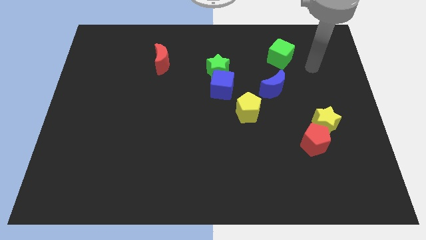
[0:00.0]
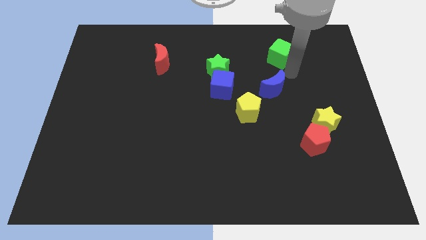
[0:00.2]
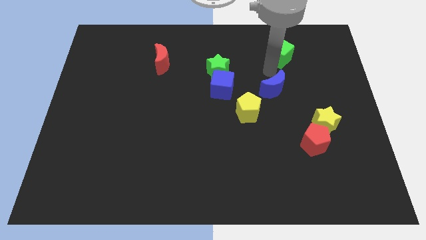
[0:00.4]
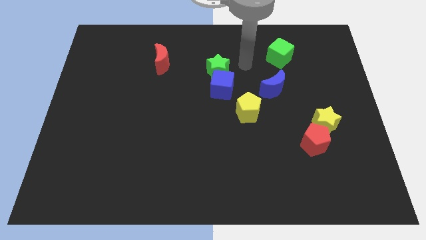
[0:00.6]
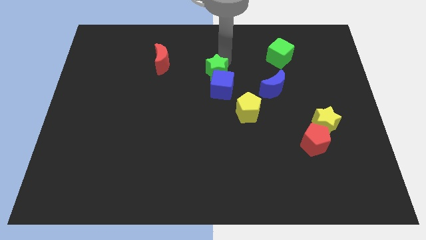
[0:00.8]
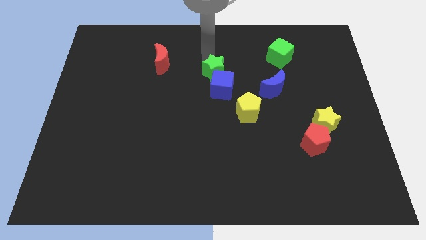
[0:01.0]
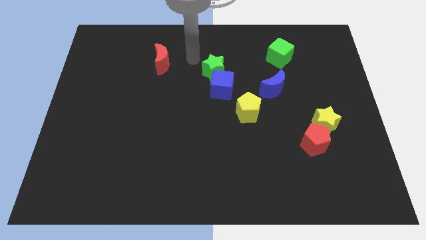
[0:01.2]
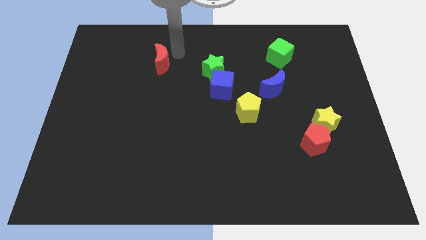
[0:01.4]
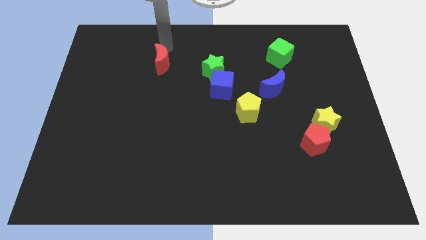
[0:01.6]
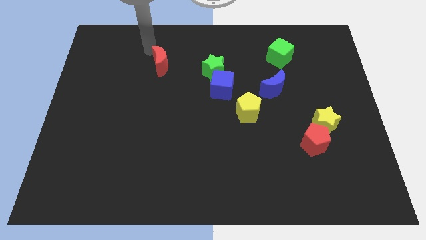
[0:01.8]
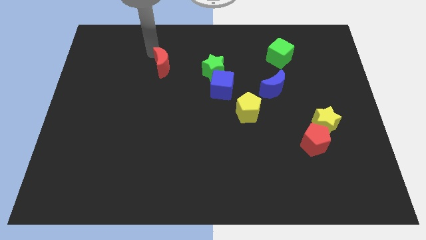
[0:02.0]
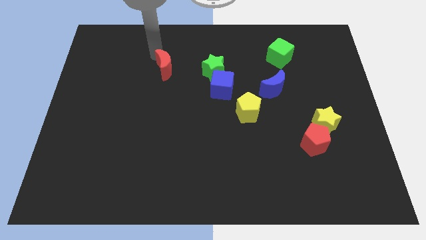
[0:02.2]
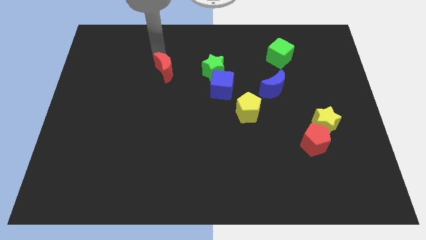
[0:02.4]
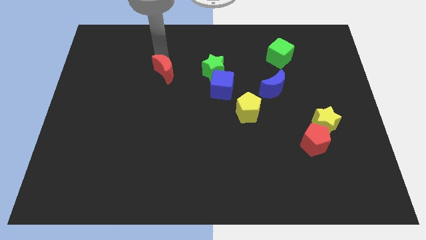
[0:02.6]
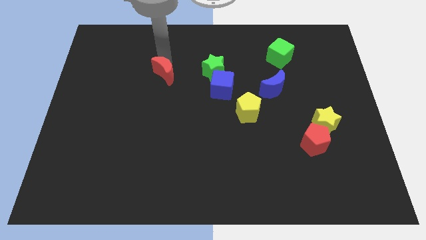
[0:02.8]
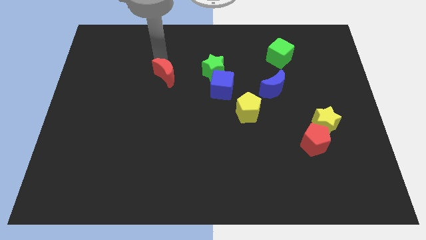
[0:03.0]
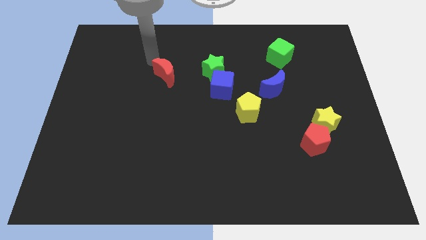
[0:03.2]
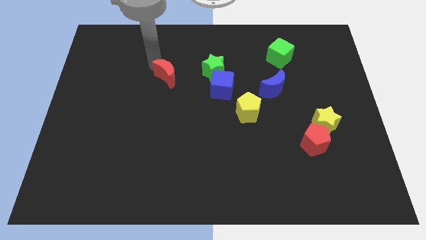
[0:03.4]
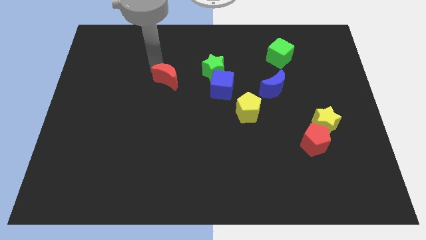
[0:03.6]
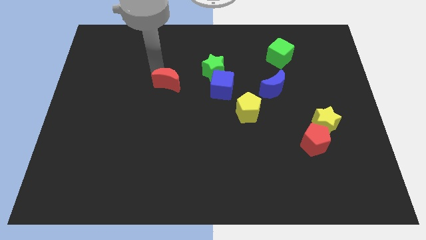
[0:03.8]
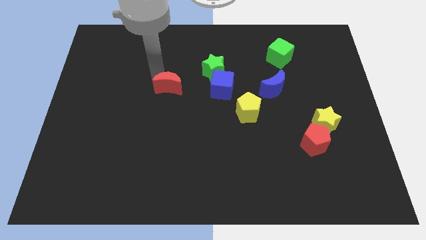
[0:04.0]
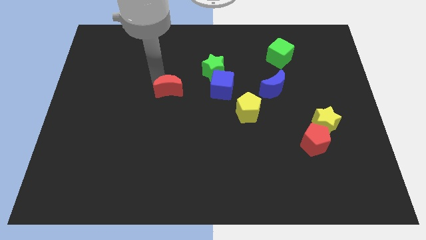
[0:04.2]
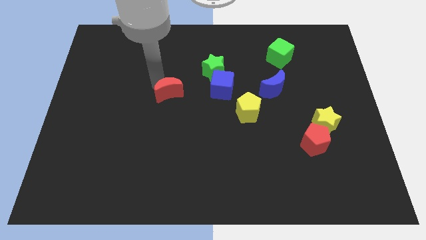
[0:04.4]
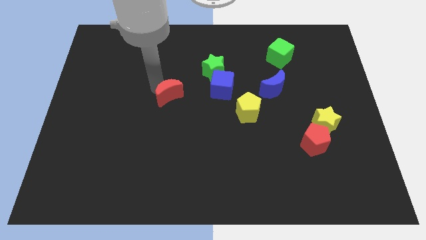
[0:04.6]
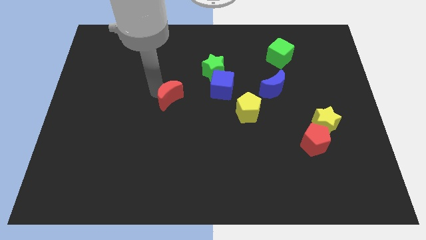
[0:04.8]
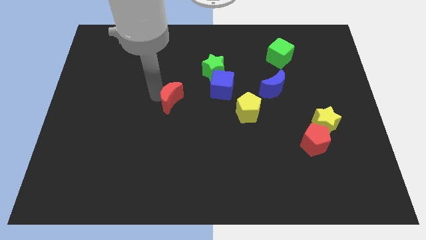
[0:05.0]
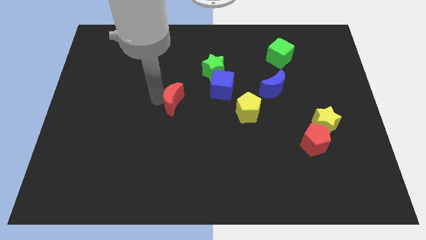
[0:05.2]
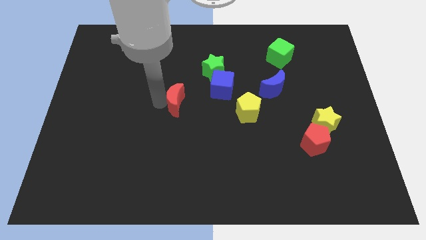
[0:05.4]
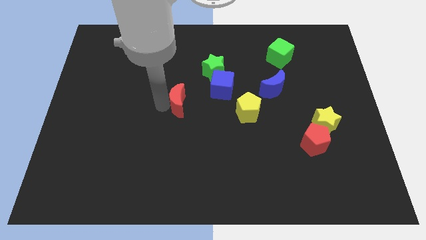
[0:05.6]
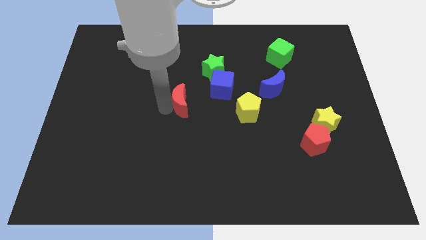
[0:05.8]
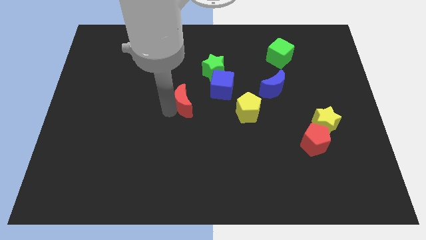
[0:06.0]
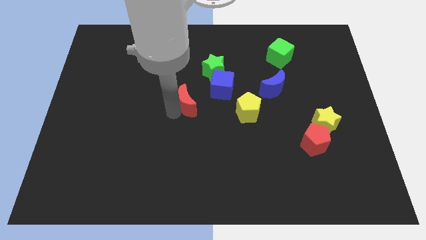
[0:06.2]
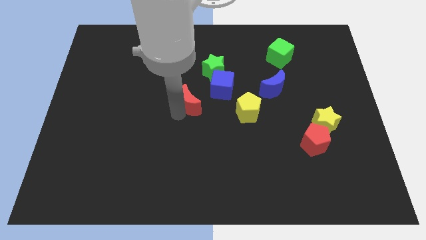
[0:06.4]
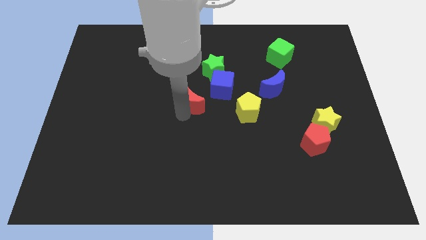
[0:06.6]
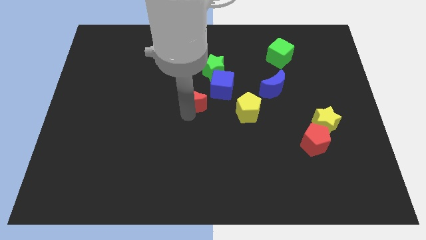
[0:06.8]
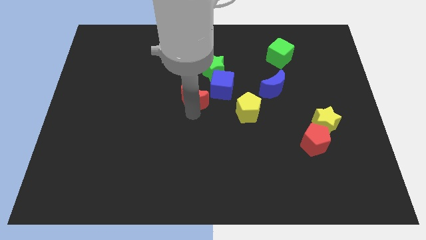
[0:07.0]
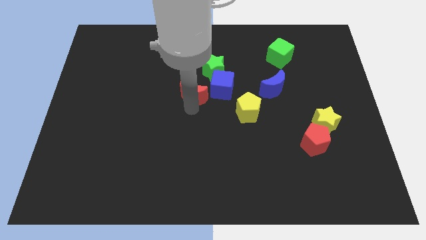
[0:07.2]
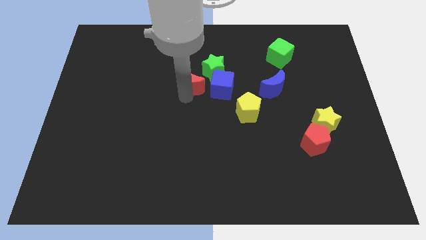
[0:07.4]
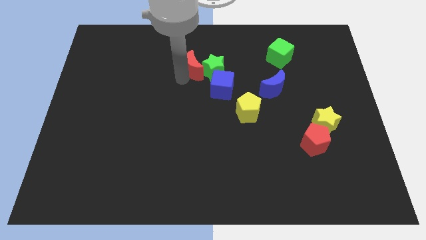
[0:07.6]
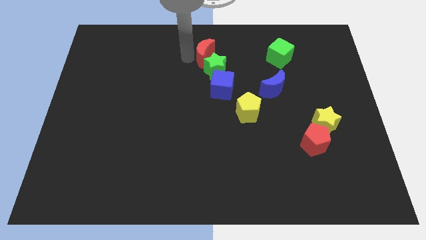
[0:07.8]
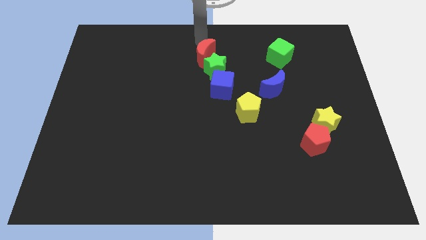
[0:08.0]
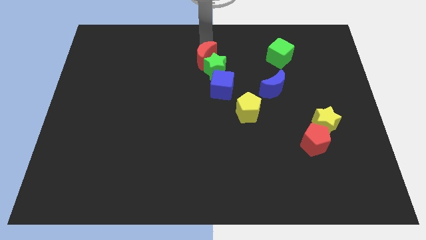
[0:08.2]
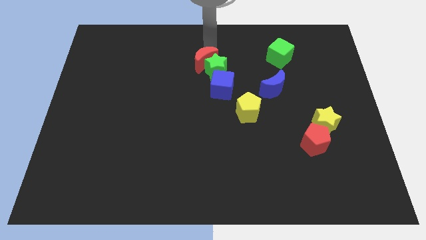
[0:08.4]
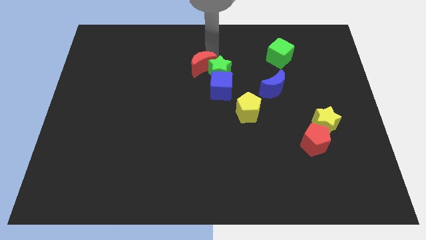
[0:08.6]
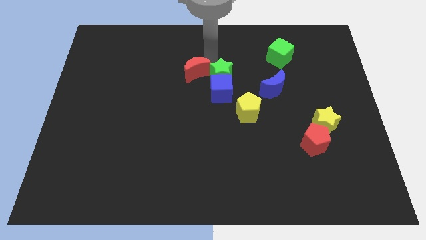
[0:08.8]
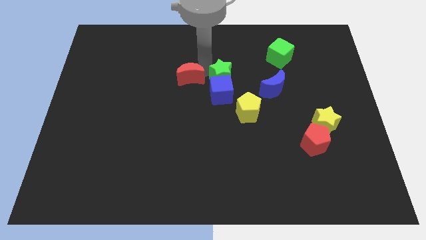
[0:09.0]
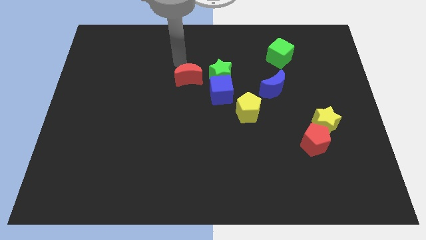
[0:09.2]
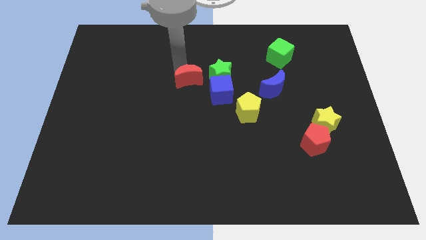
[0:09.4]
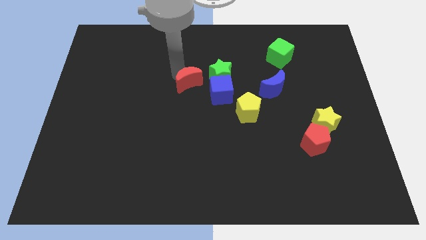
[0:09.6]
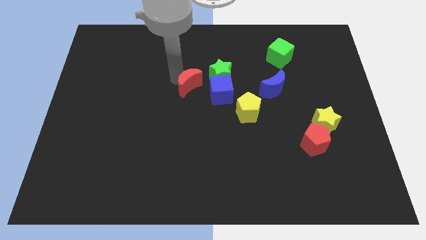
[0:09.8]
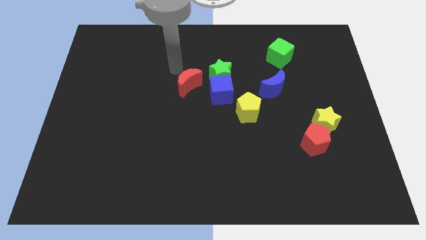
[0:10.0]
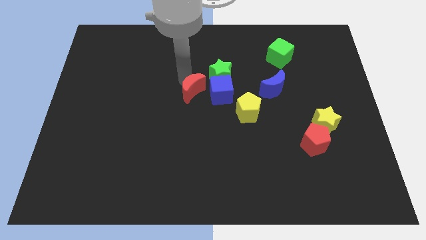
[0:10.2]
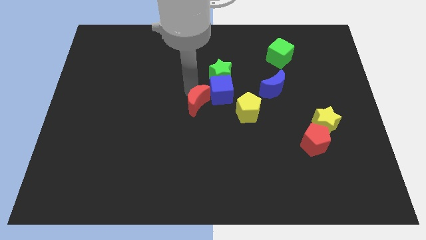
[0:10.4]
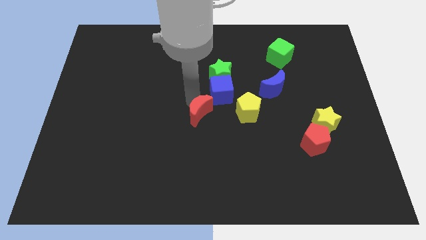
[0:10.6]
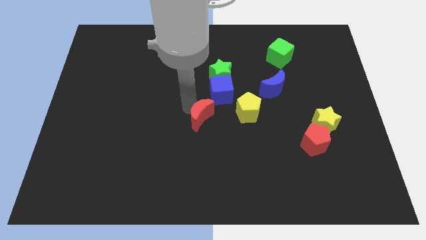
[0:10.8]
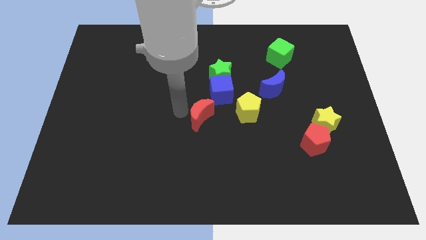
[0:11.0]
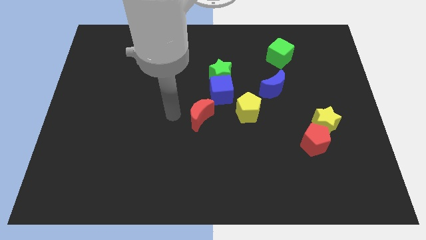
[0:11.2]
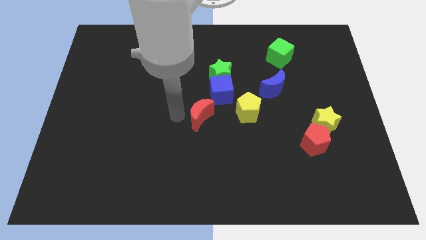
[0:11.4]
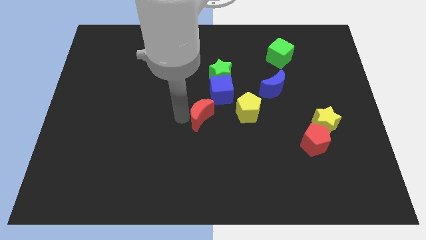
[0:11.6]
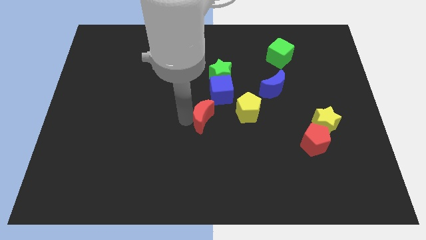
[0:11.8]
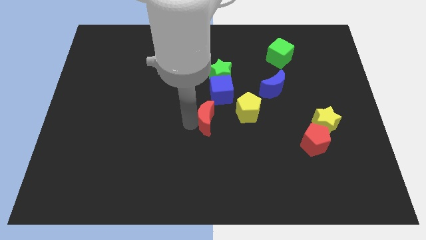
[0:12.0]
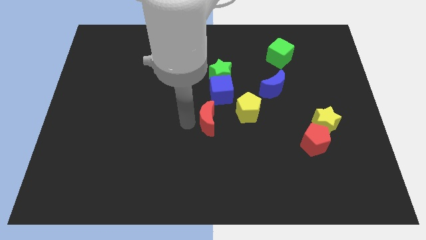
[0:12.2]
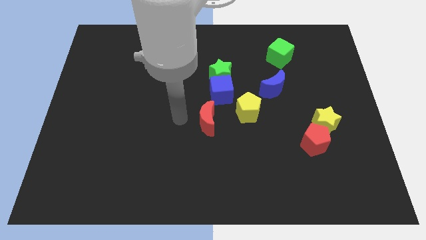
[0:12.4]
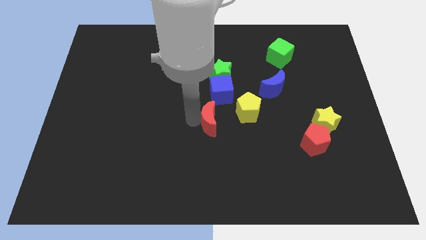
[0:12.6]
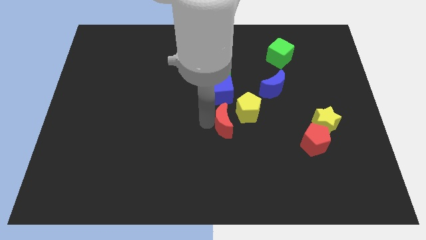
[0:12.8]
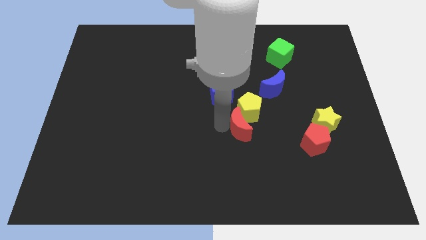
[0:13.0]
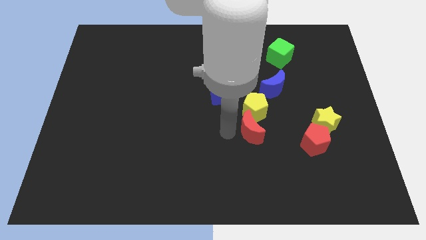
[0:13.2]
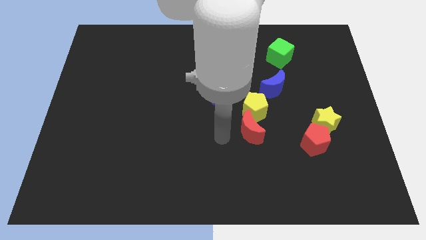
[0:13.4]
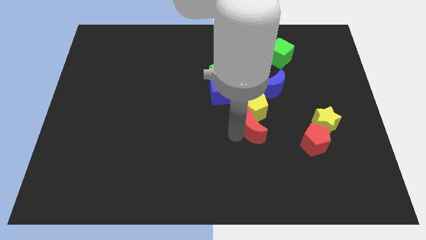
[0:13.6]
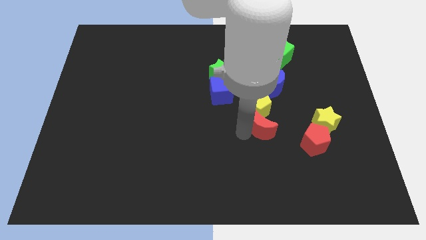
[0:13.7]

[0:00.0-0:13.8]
move the red moon to the left side of the yellow star
